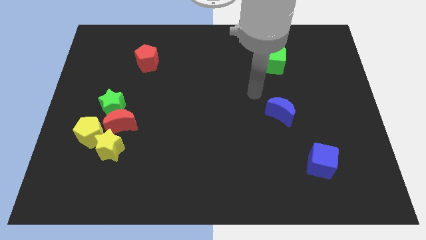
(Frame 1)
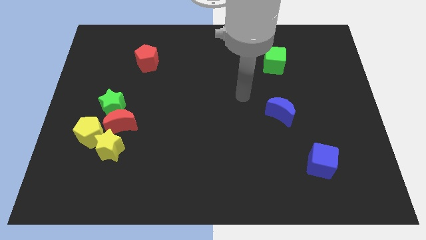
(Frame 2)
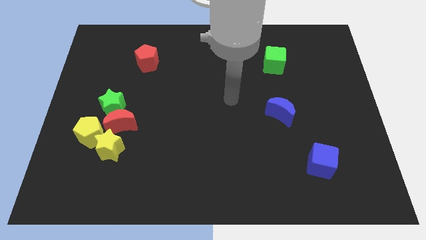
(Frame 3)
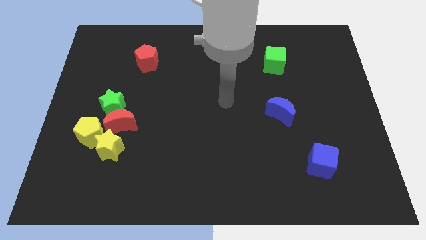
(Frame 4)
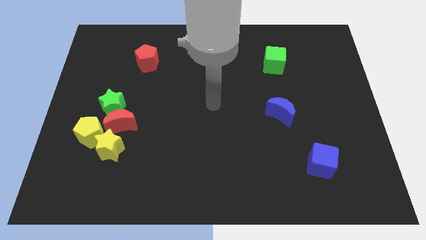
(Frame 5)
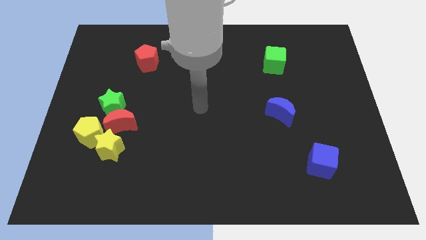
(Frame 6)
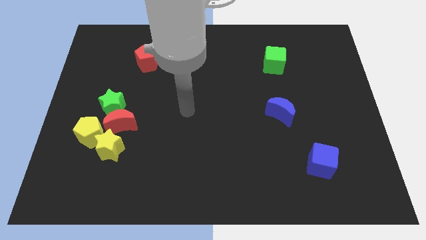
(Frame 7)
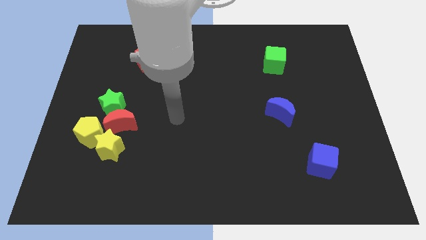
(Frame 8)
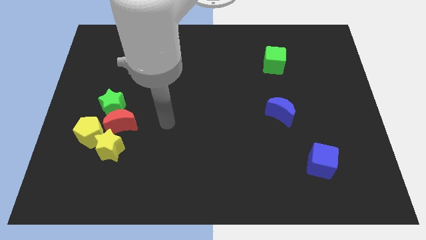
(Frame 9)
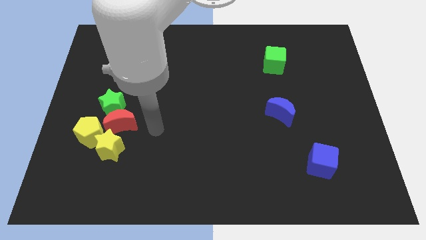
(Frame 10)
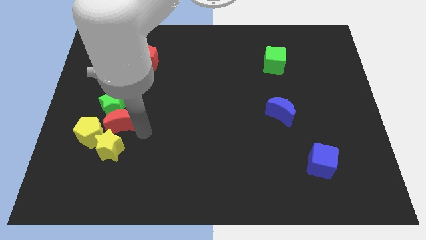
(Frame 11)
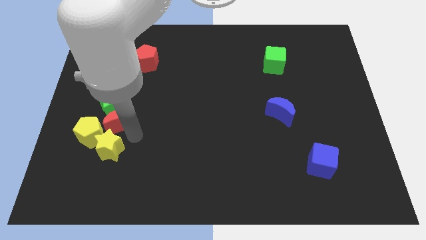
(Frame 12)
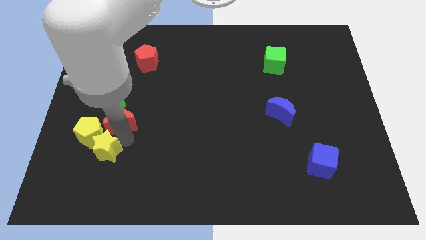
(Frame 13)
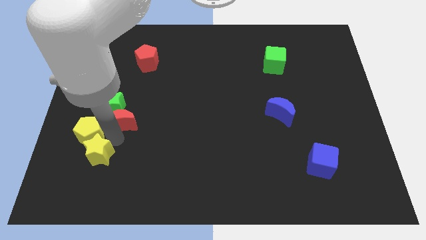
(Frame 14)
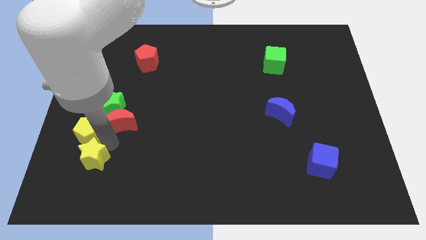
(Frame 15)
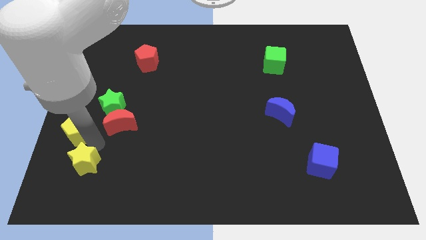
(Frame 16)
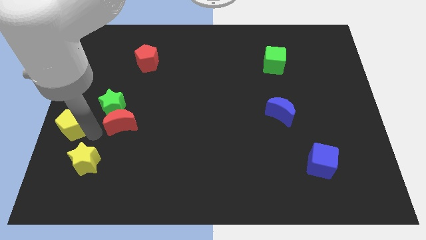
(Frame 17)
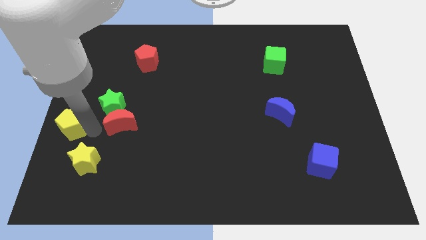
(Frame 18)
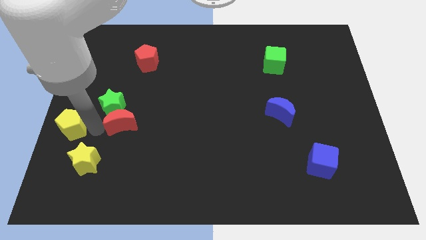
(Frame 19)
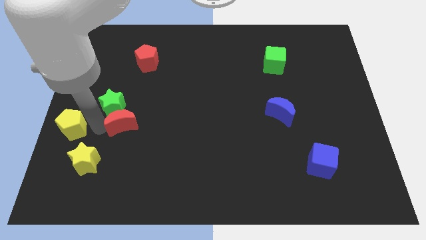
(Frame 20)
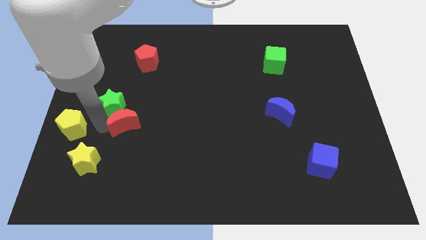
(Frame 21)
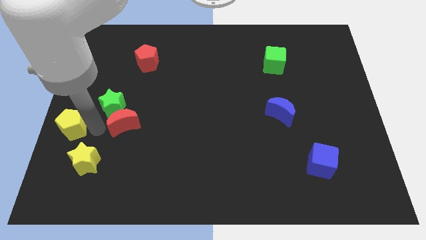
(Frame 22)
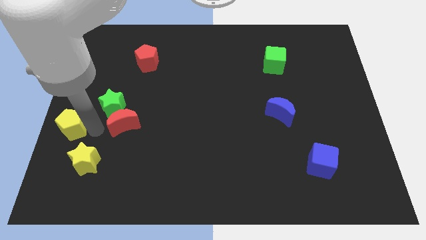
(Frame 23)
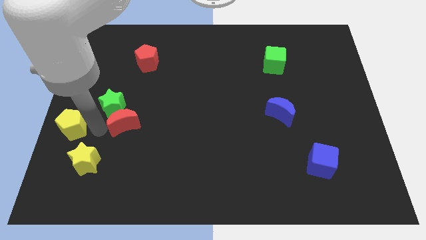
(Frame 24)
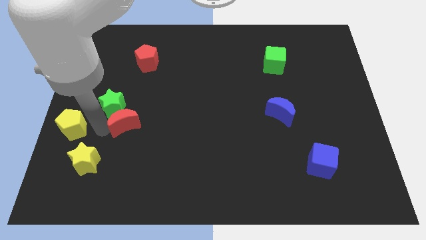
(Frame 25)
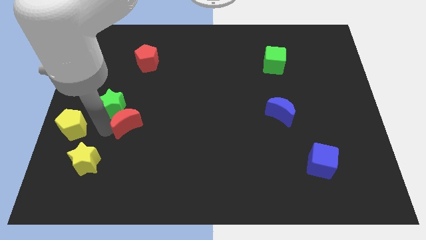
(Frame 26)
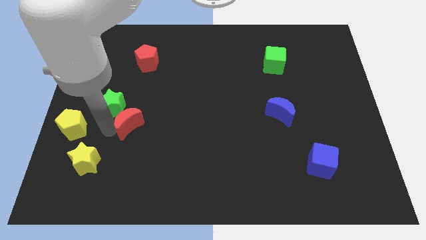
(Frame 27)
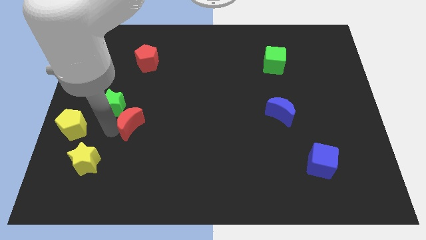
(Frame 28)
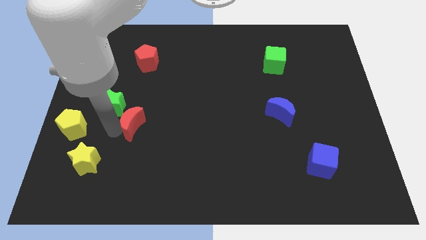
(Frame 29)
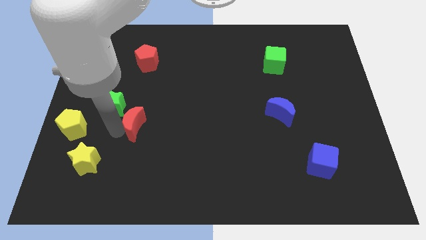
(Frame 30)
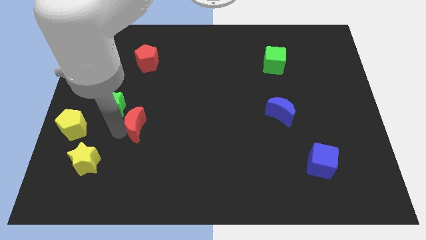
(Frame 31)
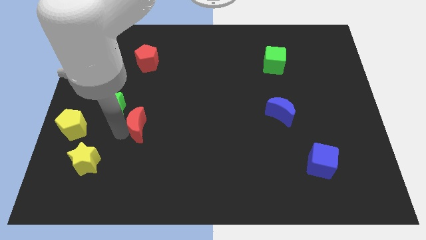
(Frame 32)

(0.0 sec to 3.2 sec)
separate the red moon from the clump

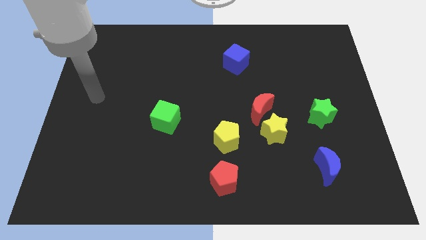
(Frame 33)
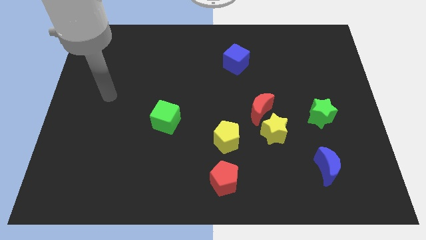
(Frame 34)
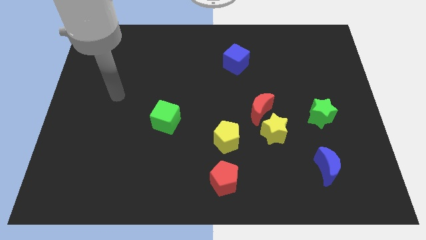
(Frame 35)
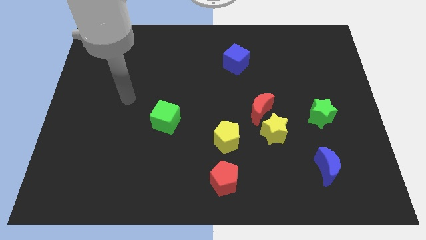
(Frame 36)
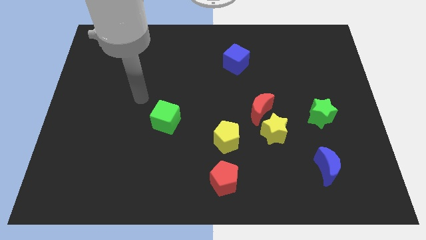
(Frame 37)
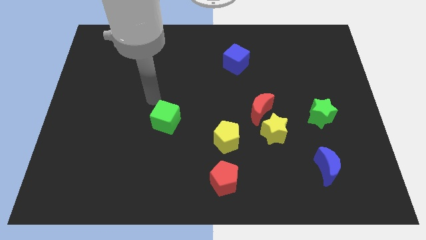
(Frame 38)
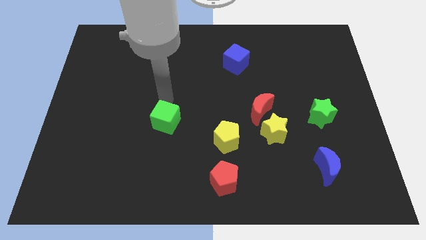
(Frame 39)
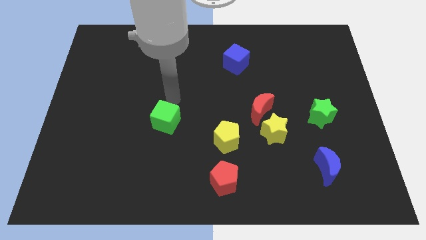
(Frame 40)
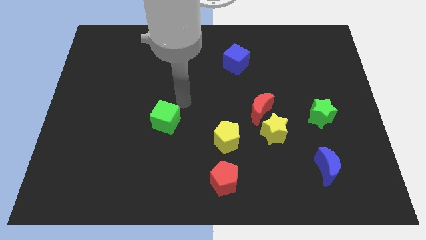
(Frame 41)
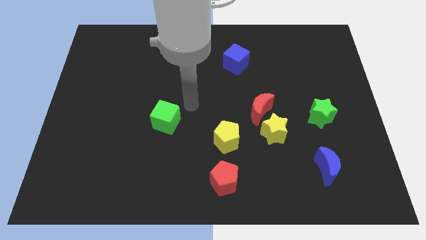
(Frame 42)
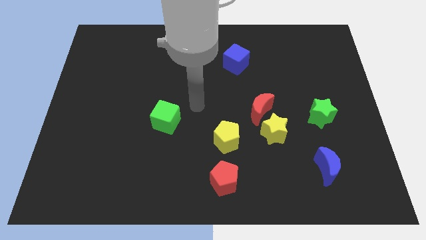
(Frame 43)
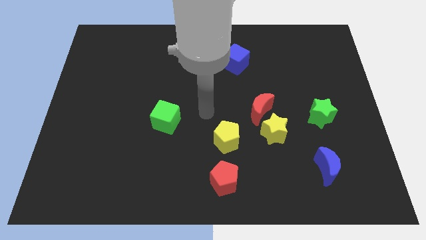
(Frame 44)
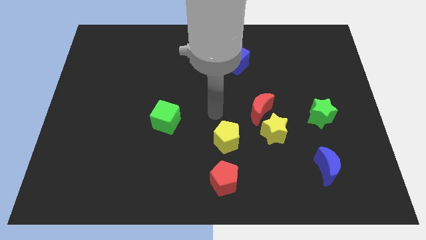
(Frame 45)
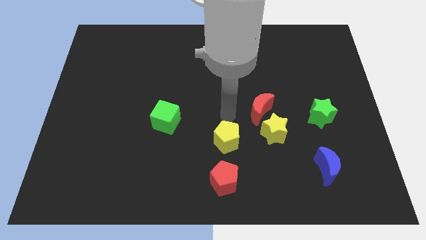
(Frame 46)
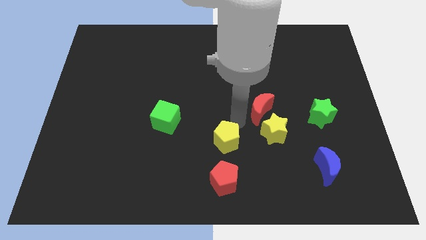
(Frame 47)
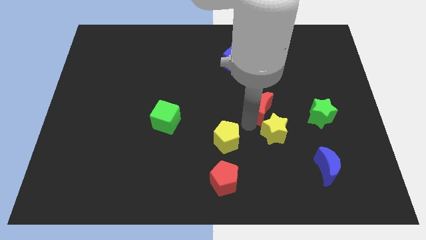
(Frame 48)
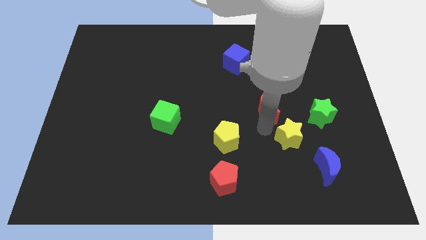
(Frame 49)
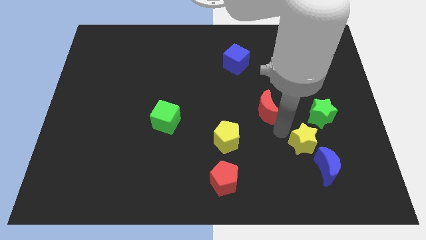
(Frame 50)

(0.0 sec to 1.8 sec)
separate the red moon from the yellow star

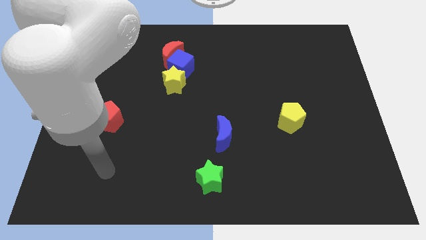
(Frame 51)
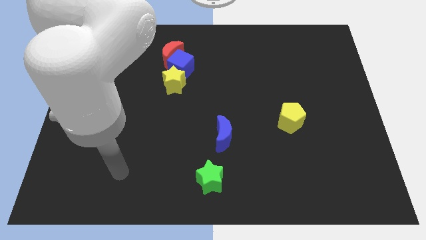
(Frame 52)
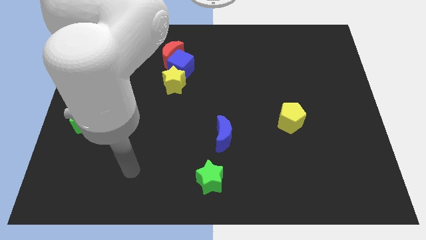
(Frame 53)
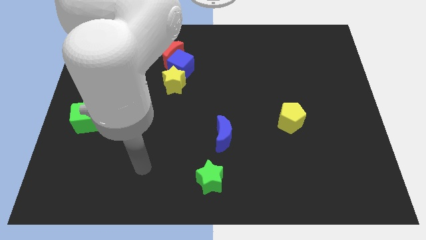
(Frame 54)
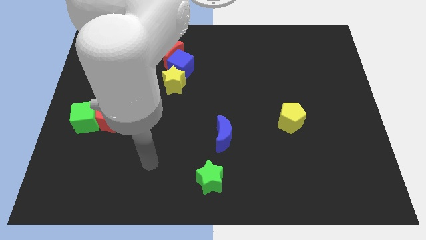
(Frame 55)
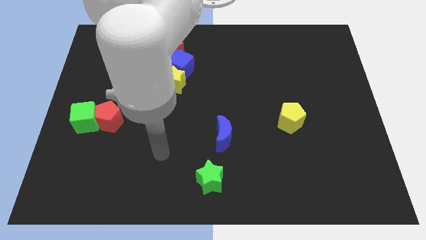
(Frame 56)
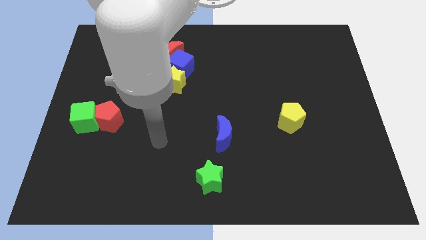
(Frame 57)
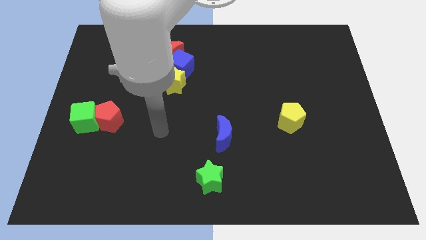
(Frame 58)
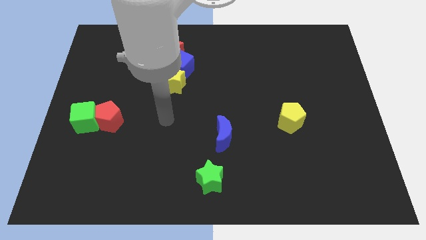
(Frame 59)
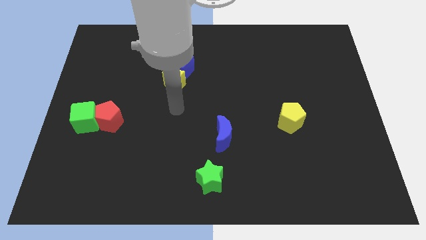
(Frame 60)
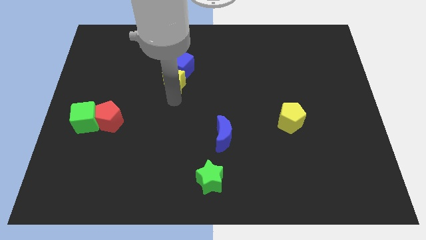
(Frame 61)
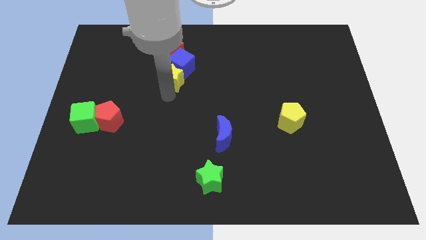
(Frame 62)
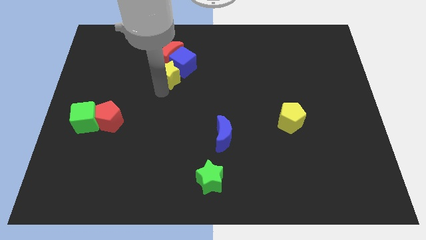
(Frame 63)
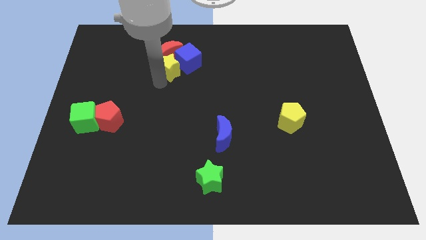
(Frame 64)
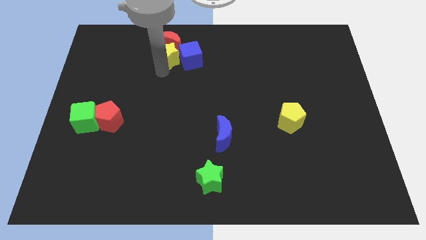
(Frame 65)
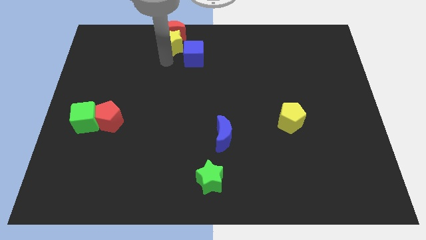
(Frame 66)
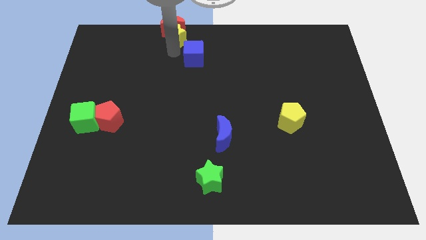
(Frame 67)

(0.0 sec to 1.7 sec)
separate the blue cube from the red moon and yellow star

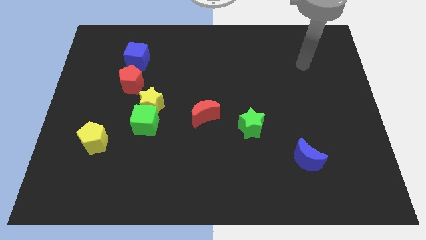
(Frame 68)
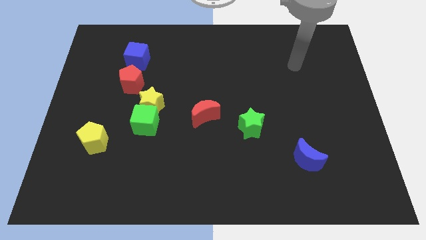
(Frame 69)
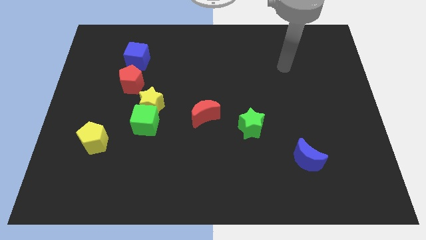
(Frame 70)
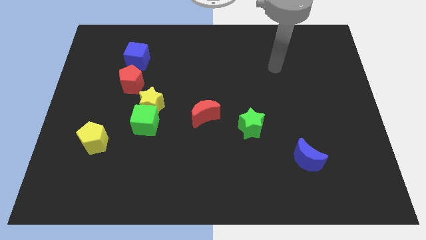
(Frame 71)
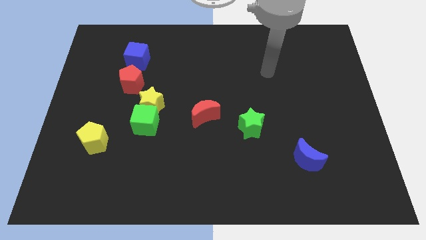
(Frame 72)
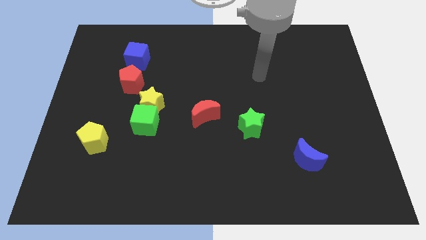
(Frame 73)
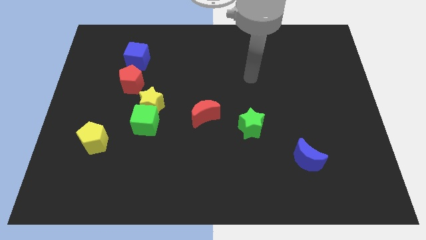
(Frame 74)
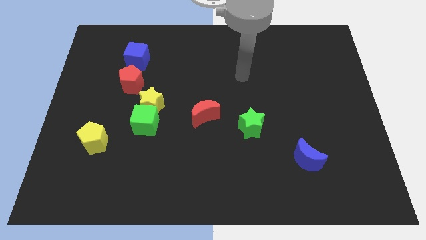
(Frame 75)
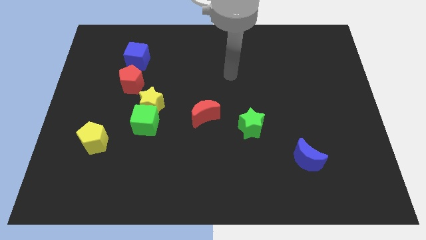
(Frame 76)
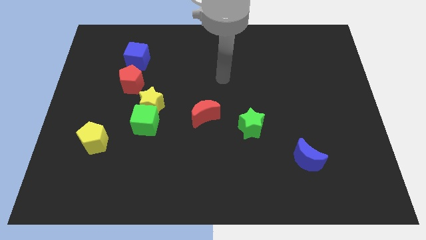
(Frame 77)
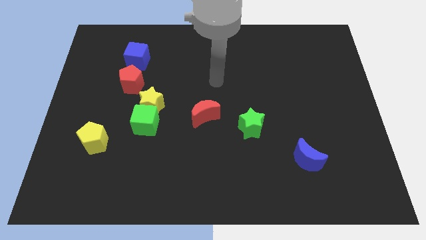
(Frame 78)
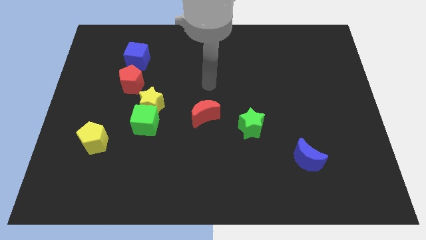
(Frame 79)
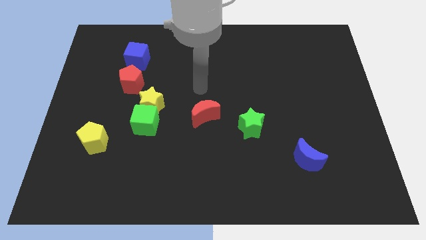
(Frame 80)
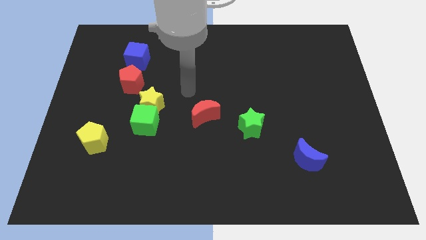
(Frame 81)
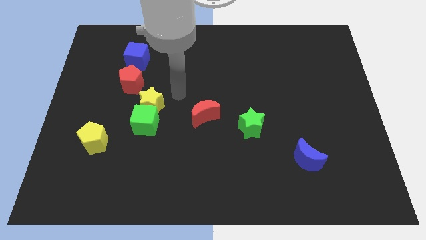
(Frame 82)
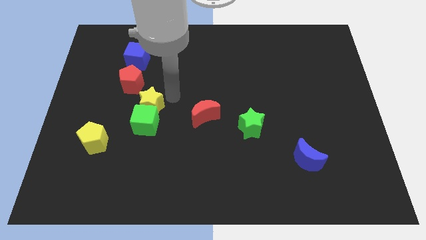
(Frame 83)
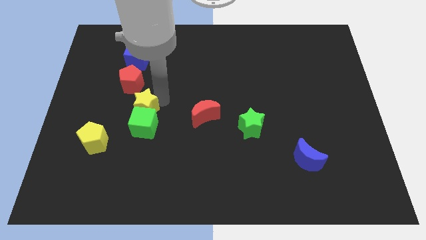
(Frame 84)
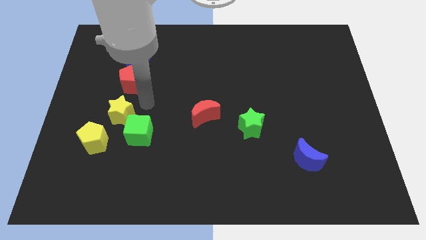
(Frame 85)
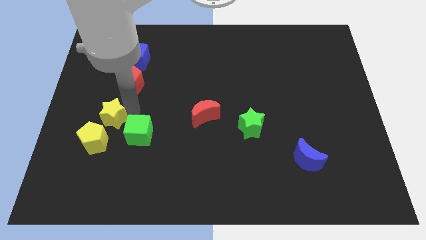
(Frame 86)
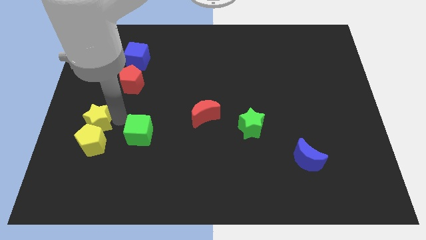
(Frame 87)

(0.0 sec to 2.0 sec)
pull the green cube apart from the yellow star

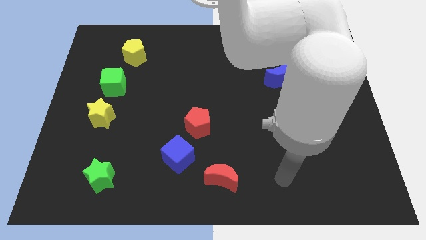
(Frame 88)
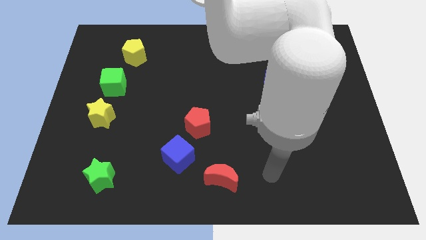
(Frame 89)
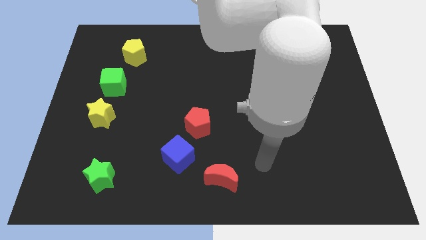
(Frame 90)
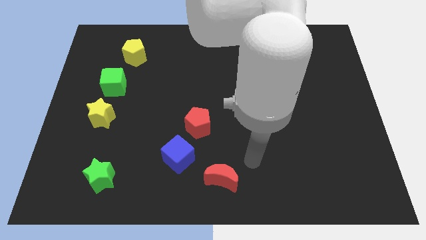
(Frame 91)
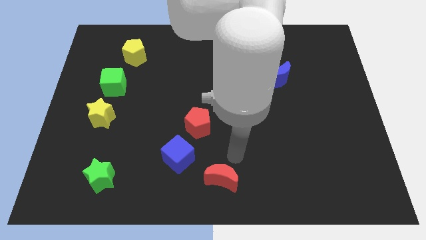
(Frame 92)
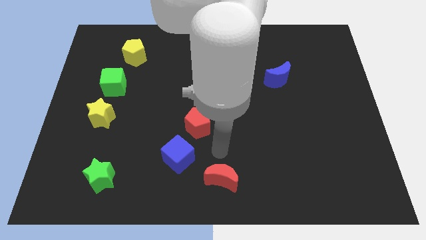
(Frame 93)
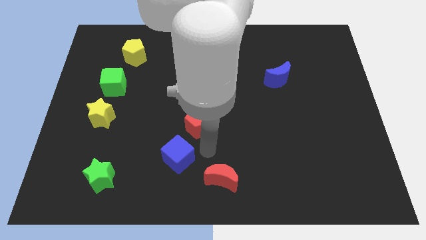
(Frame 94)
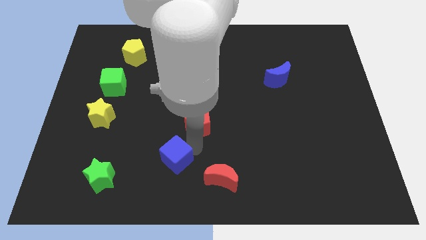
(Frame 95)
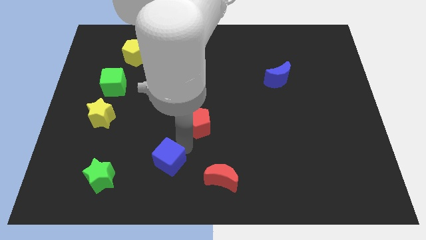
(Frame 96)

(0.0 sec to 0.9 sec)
pull the red pentagon apart from the blue cube
